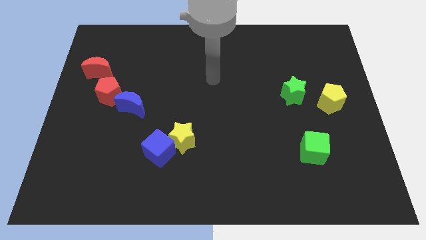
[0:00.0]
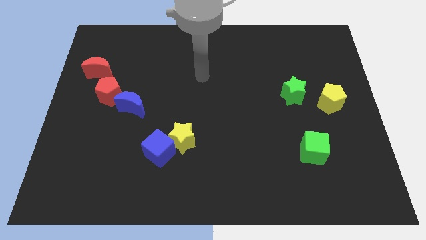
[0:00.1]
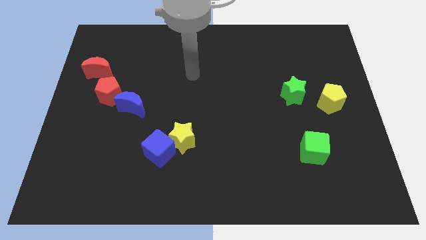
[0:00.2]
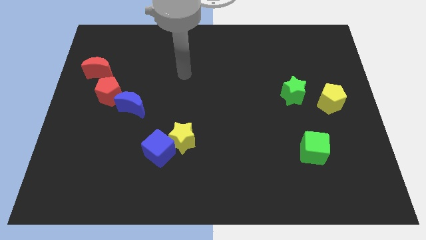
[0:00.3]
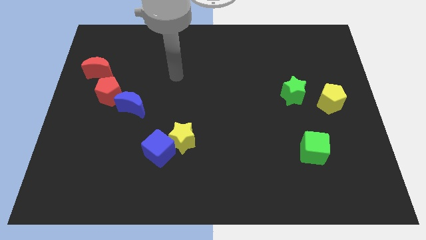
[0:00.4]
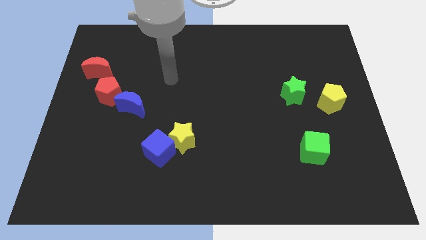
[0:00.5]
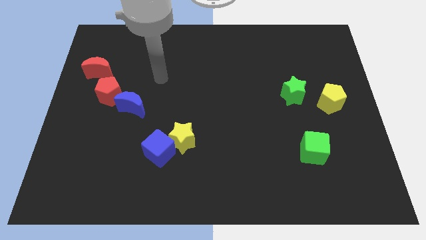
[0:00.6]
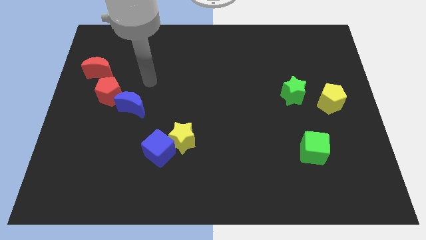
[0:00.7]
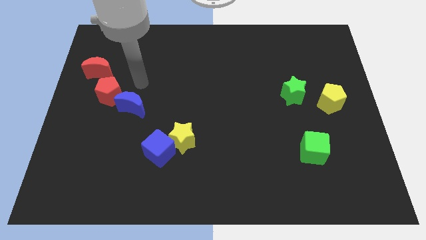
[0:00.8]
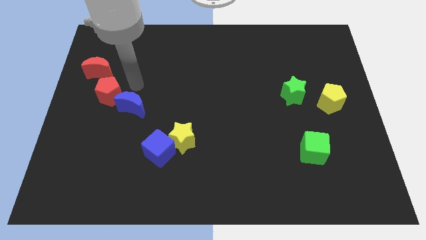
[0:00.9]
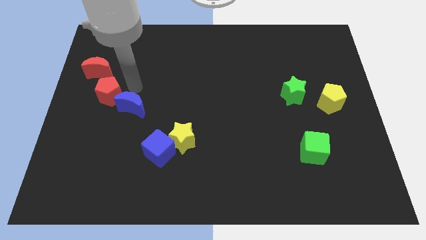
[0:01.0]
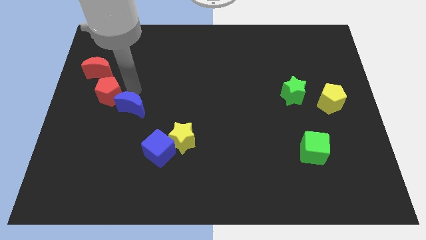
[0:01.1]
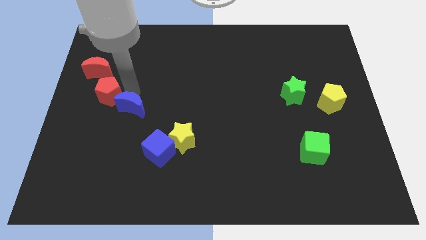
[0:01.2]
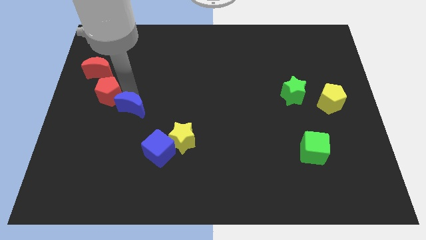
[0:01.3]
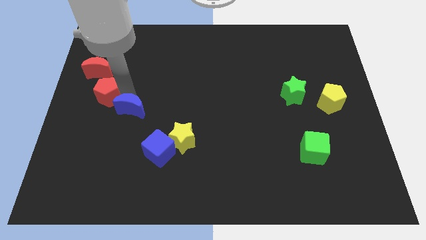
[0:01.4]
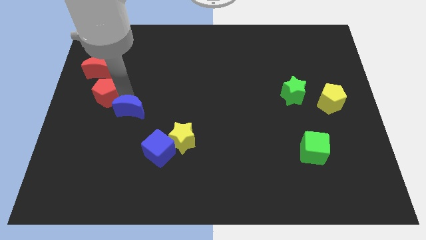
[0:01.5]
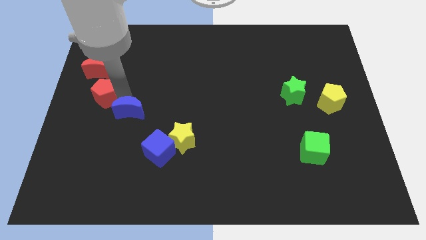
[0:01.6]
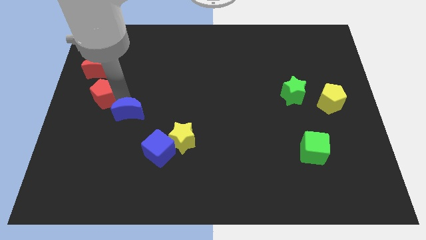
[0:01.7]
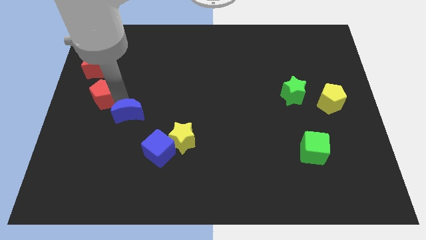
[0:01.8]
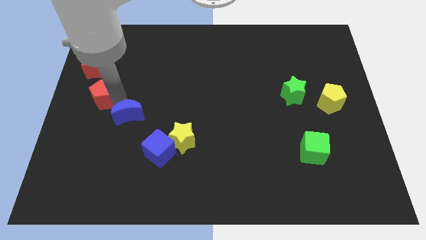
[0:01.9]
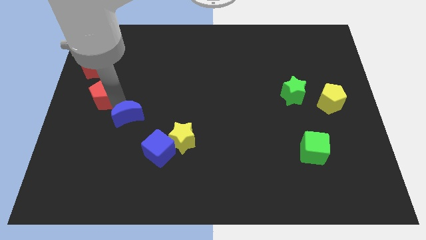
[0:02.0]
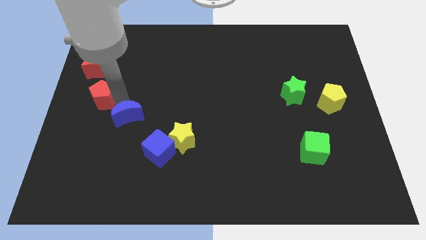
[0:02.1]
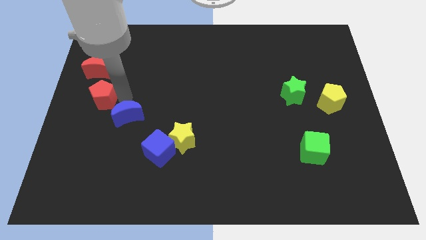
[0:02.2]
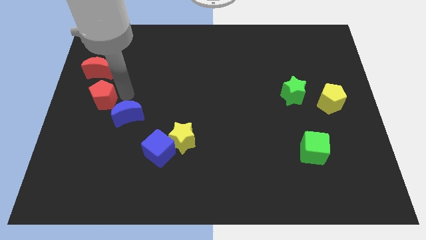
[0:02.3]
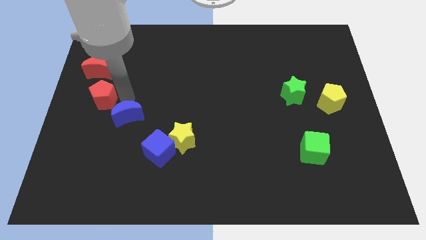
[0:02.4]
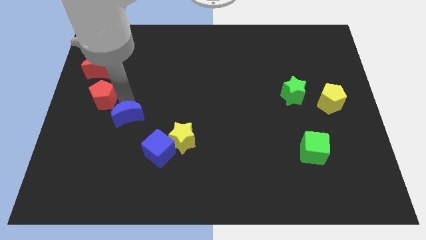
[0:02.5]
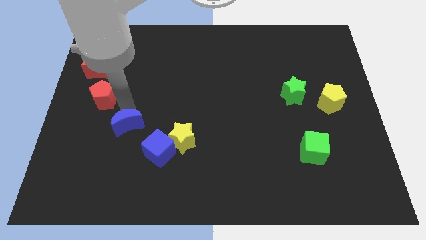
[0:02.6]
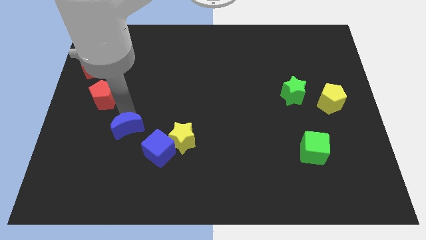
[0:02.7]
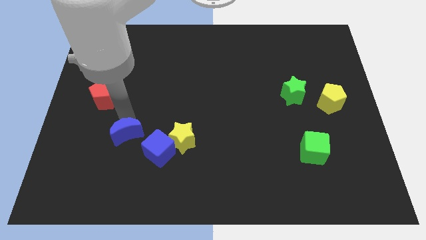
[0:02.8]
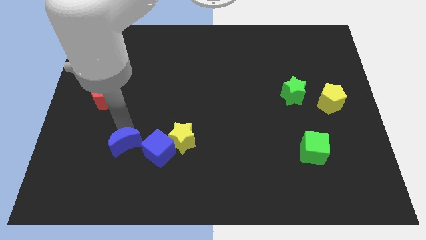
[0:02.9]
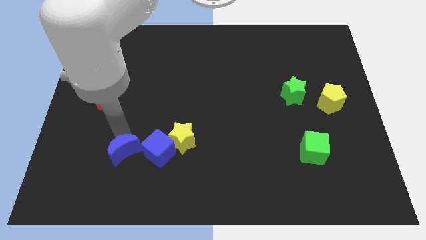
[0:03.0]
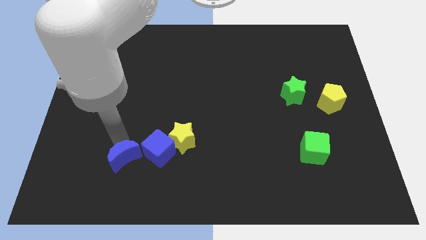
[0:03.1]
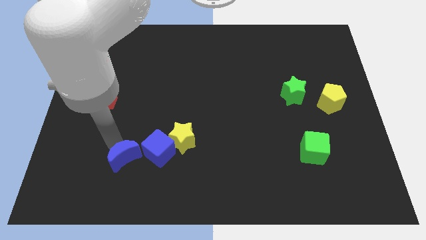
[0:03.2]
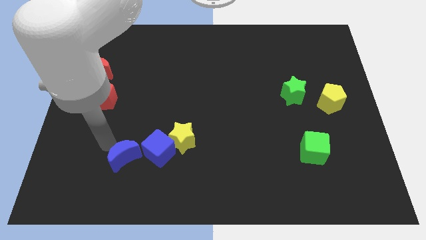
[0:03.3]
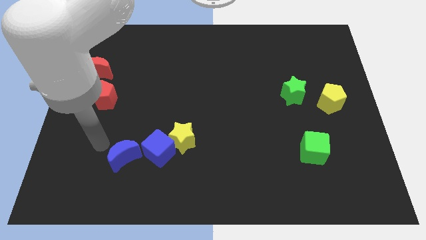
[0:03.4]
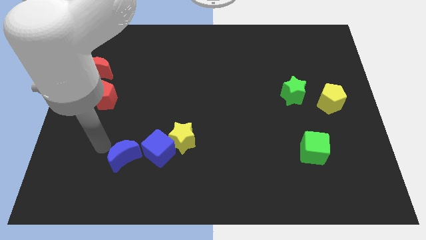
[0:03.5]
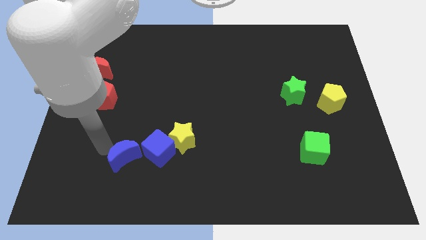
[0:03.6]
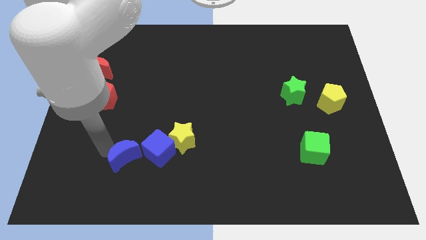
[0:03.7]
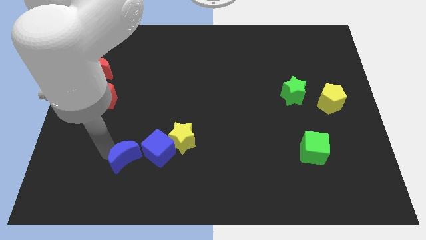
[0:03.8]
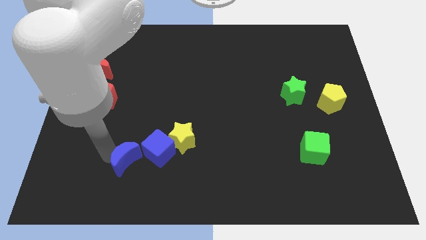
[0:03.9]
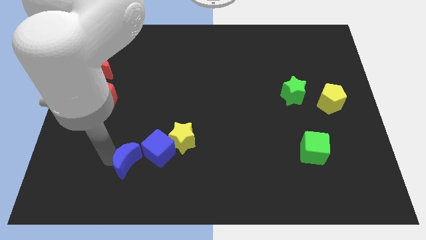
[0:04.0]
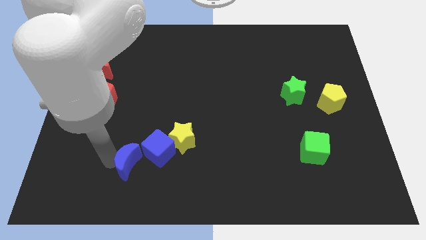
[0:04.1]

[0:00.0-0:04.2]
slightly slide the blue moon downwards and to the right

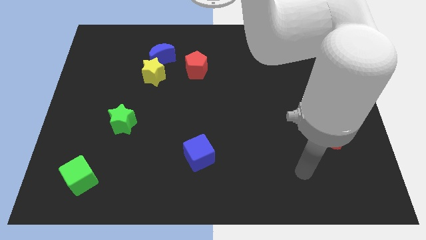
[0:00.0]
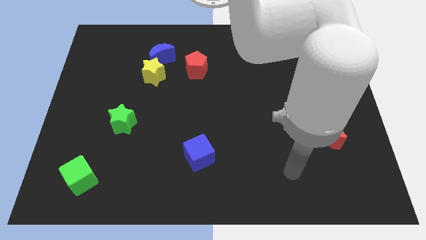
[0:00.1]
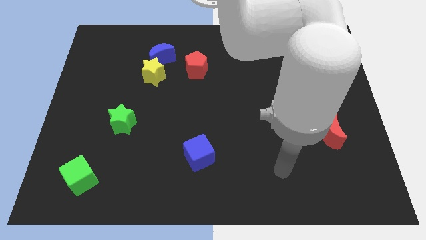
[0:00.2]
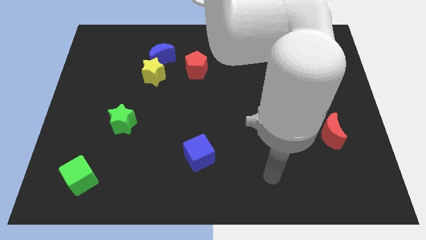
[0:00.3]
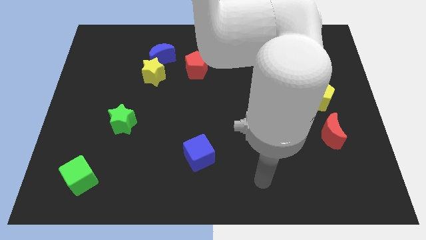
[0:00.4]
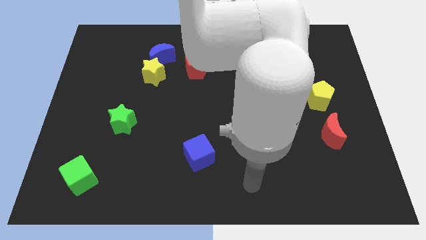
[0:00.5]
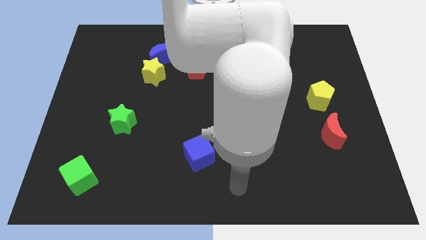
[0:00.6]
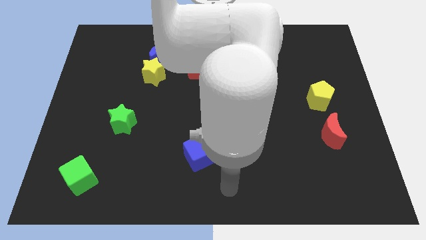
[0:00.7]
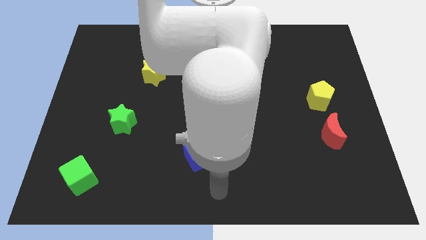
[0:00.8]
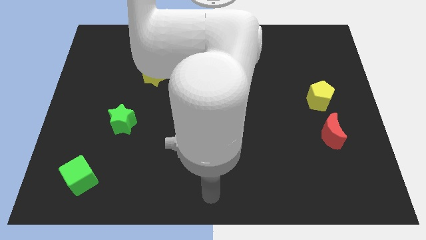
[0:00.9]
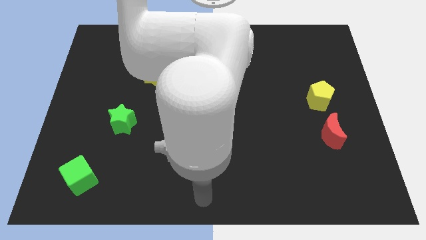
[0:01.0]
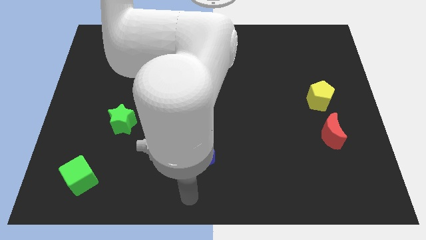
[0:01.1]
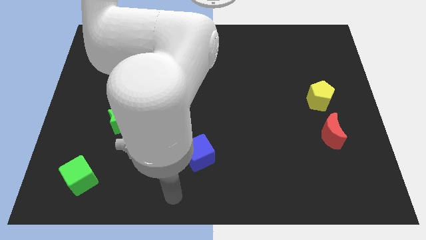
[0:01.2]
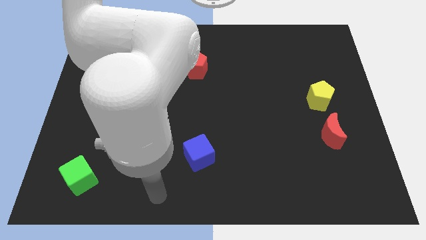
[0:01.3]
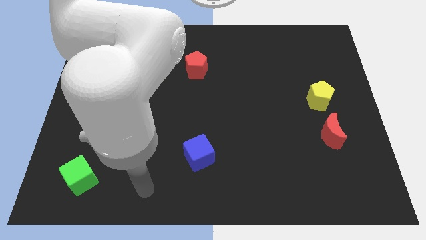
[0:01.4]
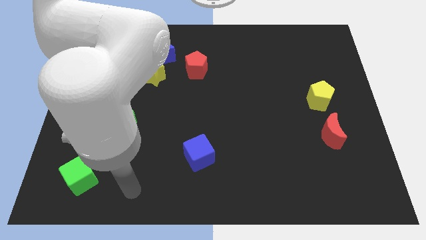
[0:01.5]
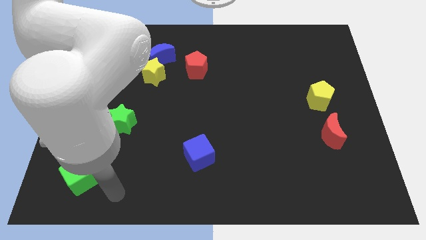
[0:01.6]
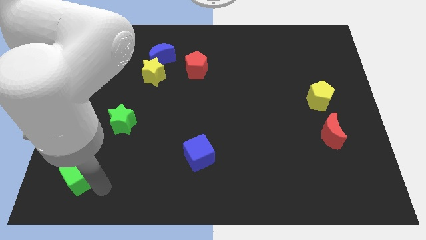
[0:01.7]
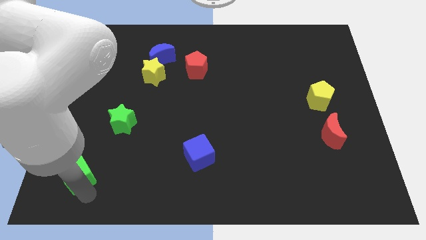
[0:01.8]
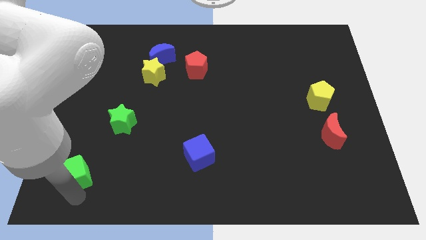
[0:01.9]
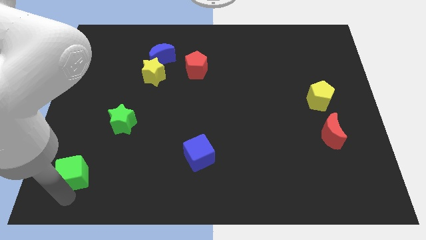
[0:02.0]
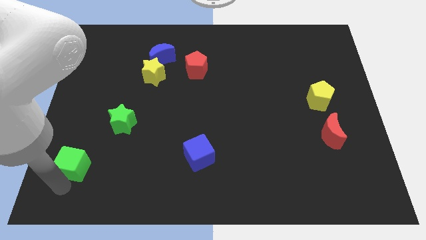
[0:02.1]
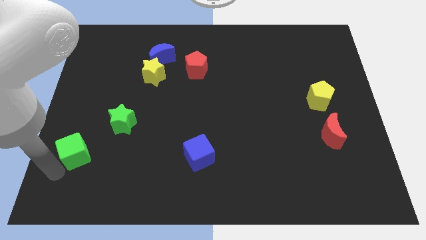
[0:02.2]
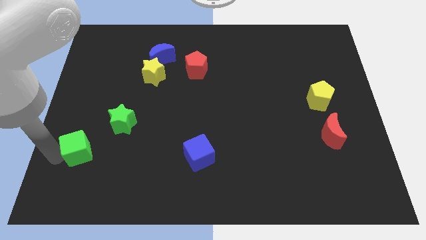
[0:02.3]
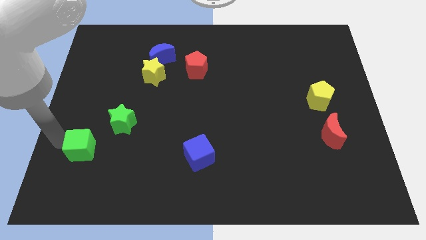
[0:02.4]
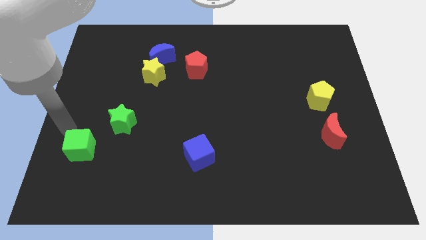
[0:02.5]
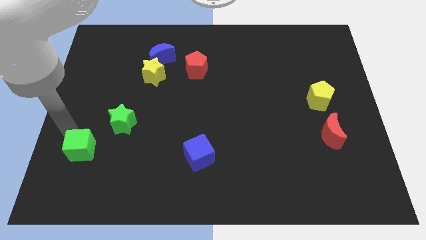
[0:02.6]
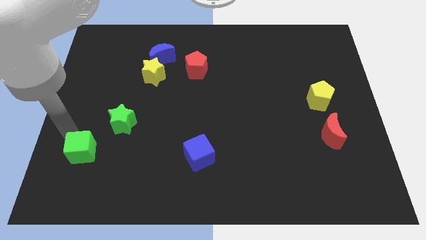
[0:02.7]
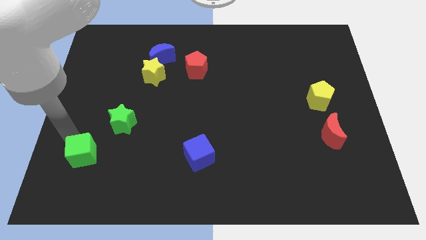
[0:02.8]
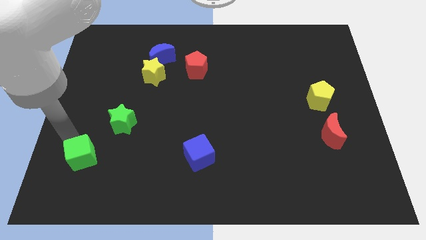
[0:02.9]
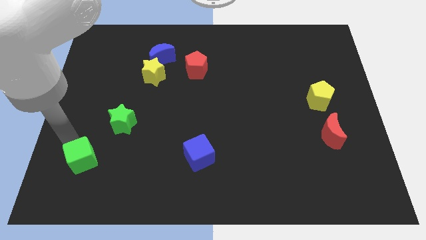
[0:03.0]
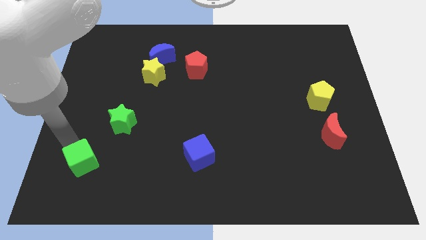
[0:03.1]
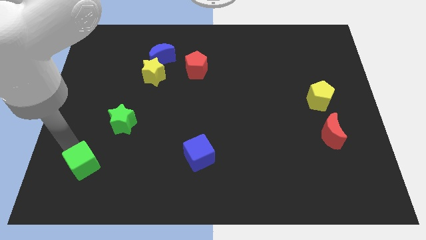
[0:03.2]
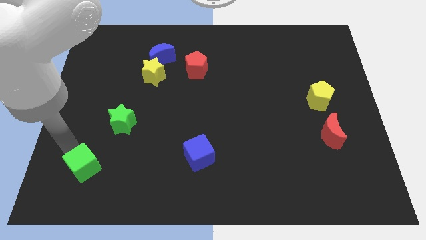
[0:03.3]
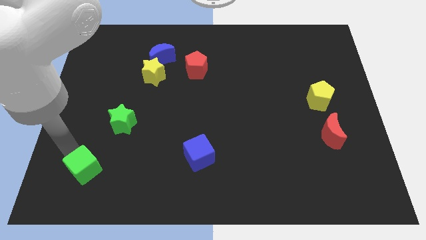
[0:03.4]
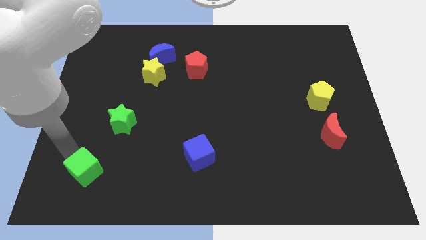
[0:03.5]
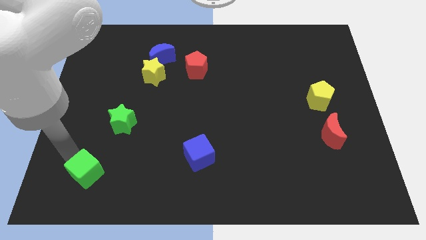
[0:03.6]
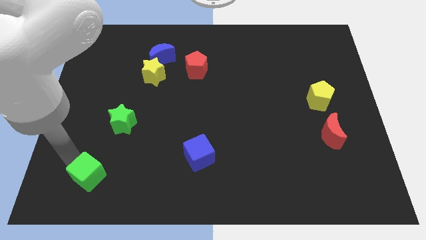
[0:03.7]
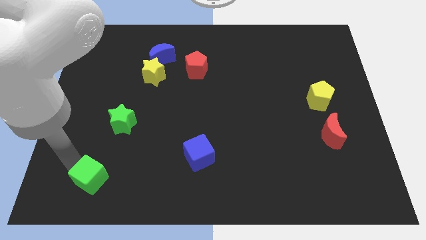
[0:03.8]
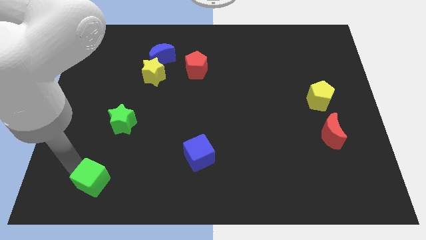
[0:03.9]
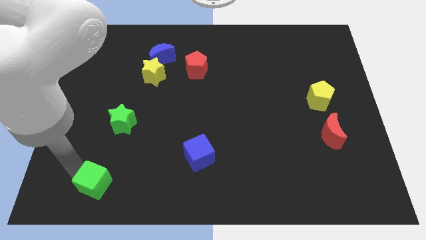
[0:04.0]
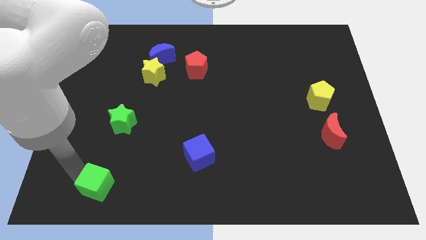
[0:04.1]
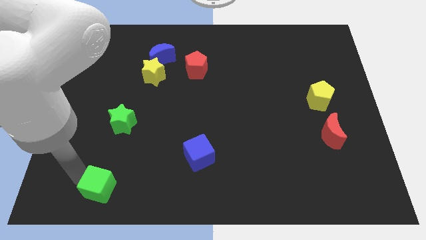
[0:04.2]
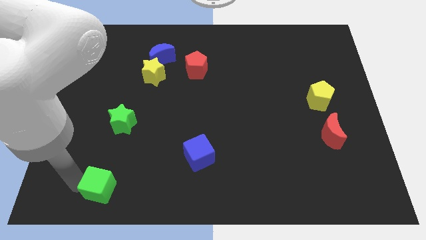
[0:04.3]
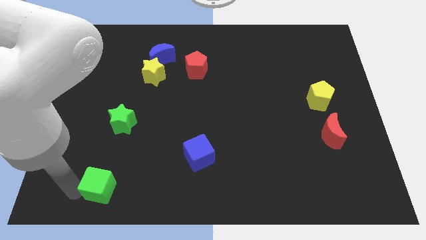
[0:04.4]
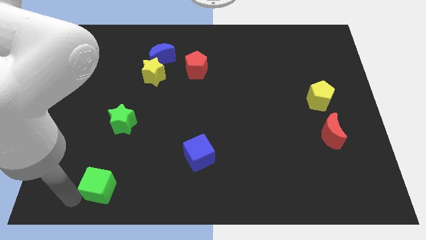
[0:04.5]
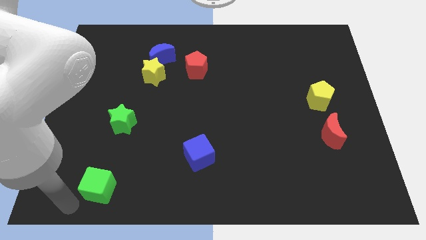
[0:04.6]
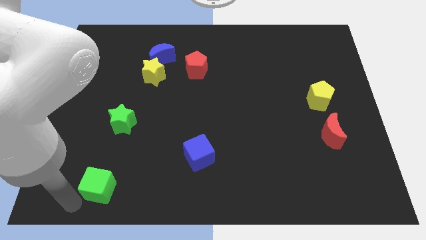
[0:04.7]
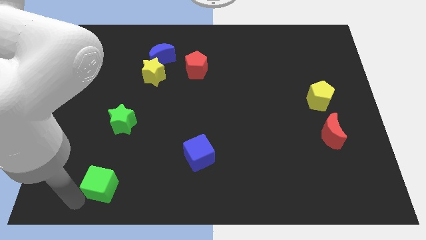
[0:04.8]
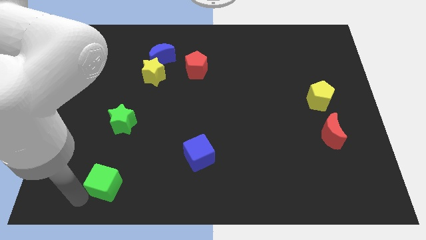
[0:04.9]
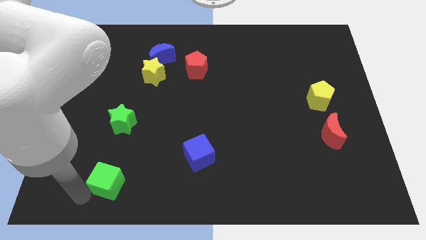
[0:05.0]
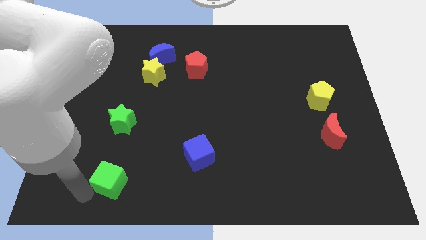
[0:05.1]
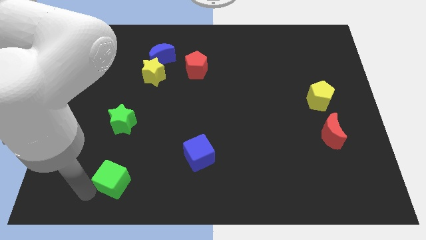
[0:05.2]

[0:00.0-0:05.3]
push the green cube right slightly
